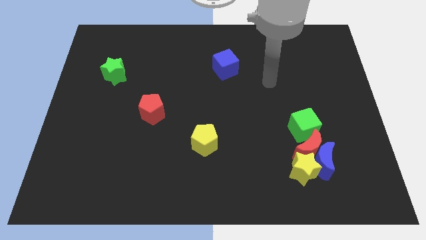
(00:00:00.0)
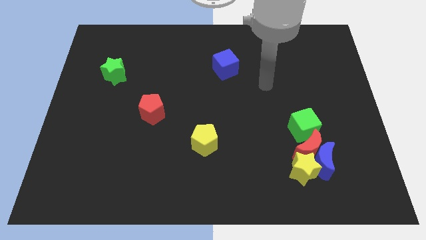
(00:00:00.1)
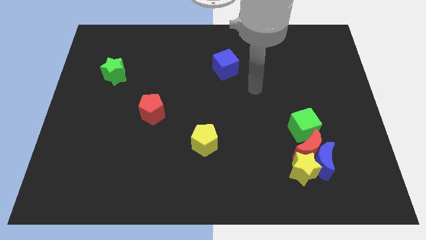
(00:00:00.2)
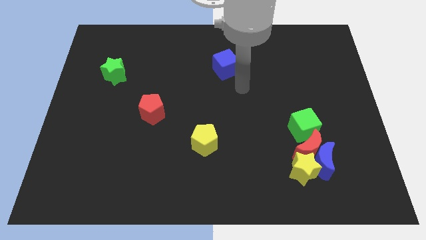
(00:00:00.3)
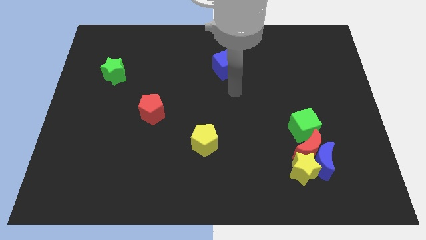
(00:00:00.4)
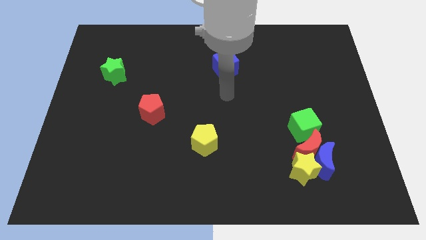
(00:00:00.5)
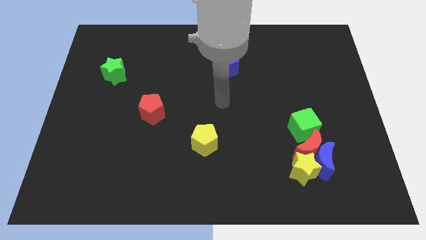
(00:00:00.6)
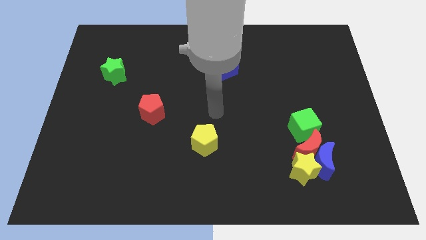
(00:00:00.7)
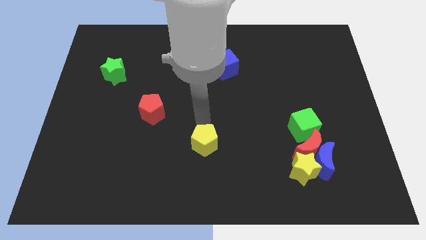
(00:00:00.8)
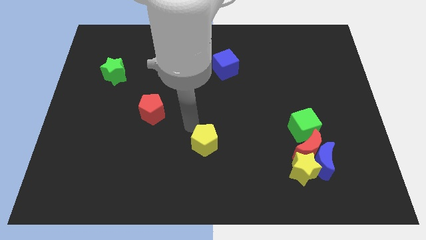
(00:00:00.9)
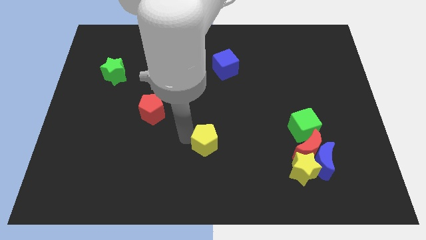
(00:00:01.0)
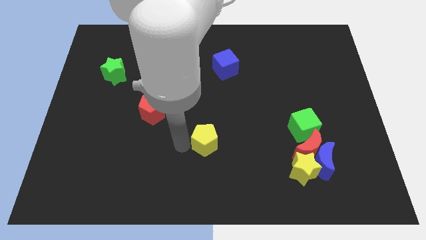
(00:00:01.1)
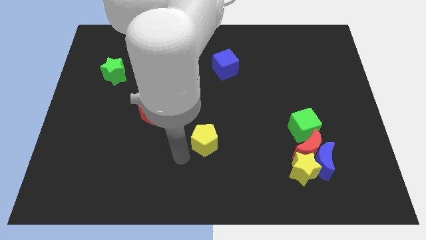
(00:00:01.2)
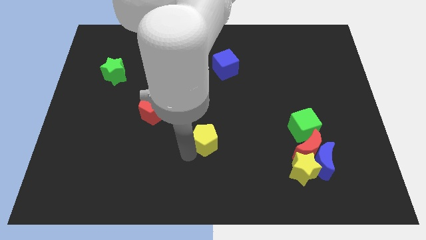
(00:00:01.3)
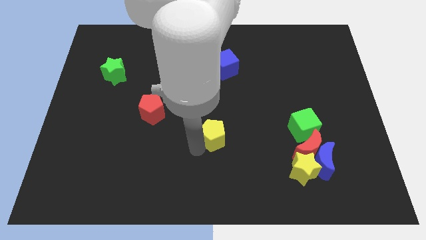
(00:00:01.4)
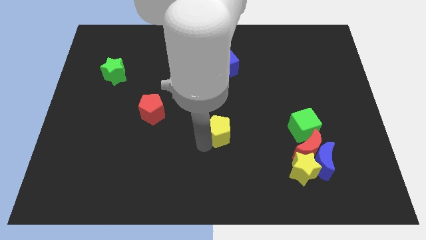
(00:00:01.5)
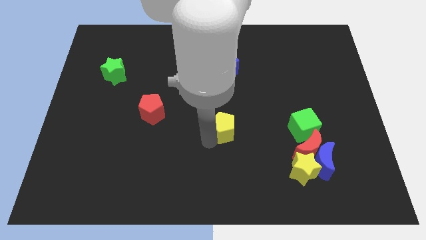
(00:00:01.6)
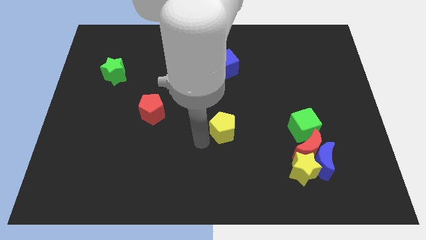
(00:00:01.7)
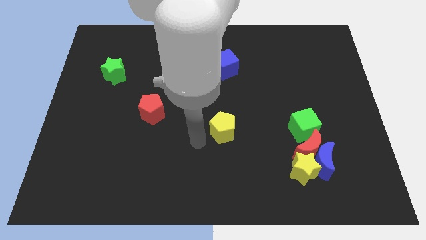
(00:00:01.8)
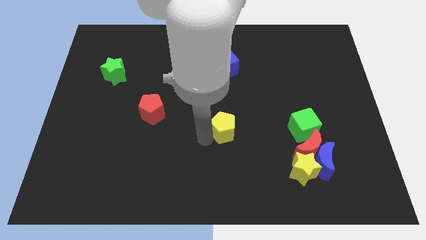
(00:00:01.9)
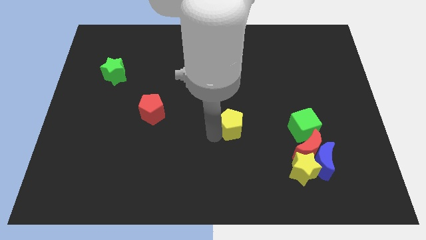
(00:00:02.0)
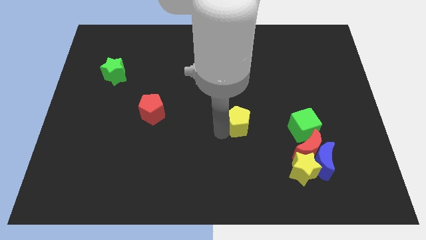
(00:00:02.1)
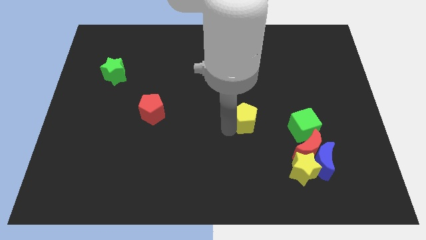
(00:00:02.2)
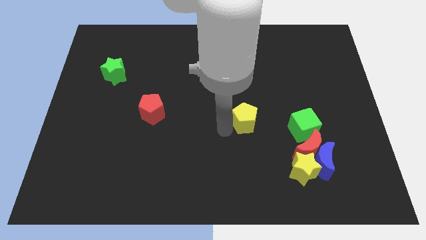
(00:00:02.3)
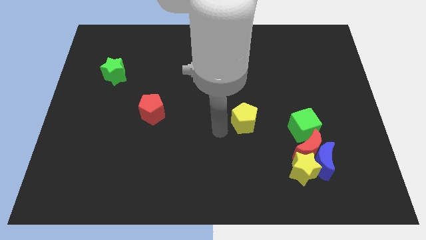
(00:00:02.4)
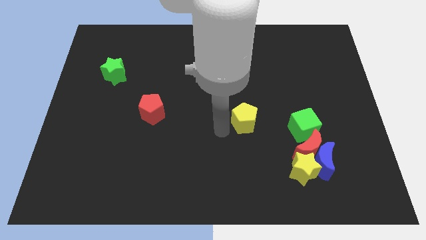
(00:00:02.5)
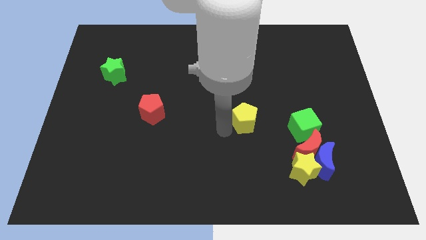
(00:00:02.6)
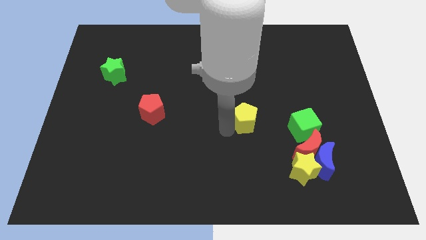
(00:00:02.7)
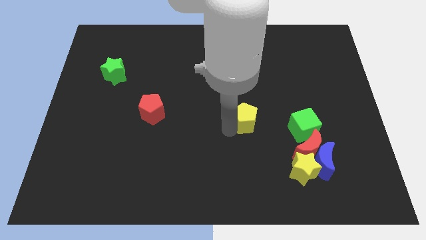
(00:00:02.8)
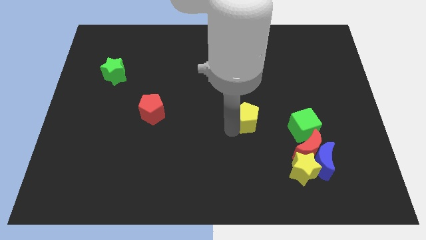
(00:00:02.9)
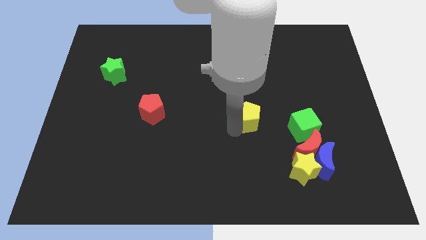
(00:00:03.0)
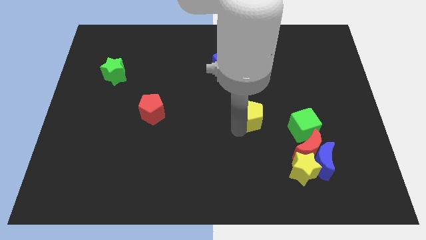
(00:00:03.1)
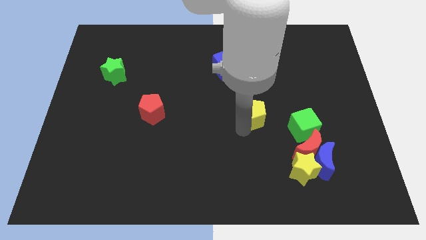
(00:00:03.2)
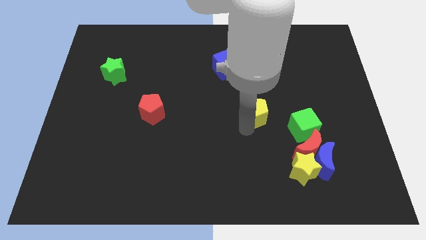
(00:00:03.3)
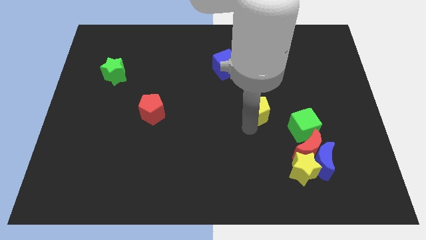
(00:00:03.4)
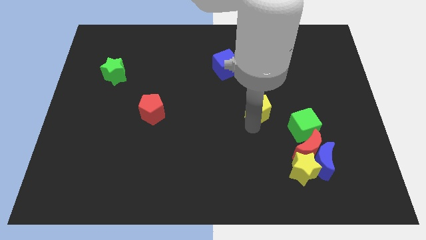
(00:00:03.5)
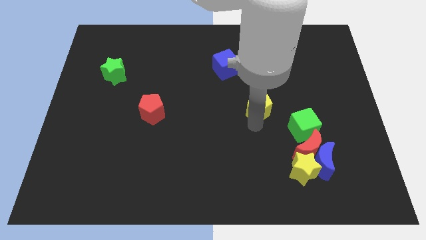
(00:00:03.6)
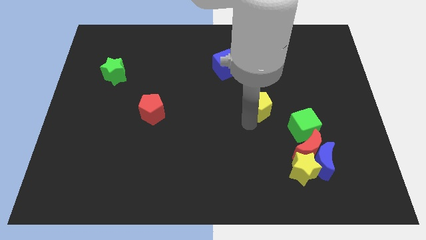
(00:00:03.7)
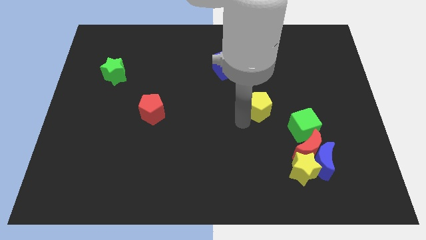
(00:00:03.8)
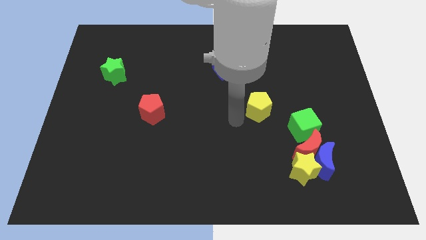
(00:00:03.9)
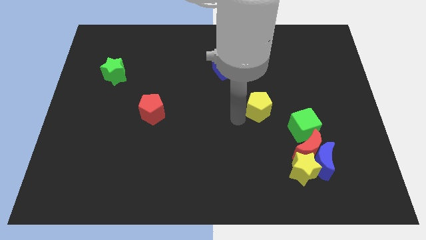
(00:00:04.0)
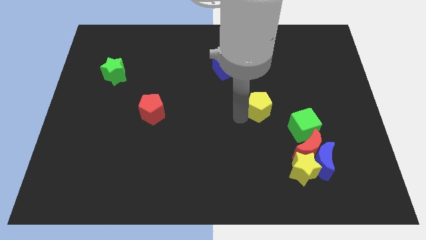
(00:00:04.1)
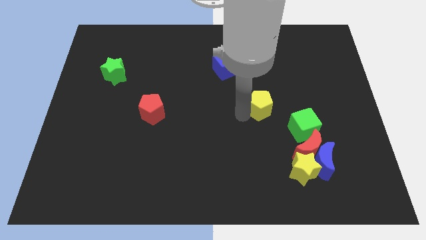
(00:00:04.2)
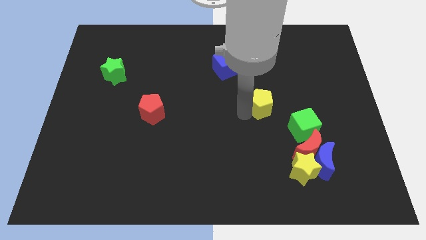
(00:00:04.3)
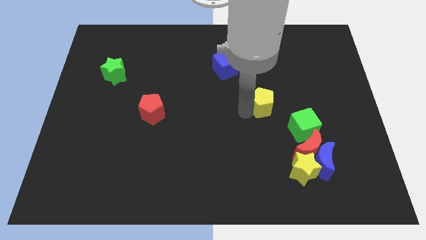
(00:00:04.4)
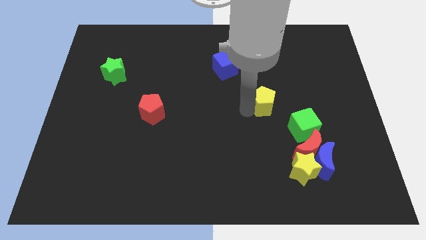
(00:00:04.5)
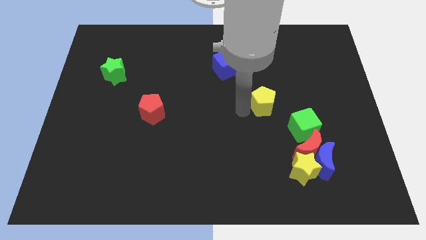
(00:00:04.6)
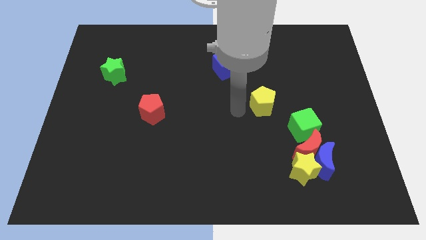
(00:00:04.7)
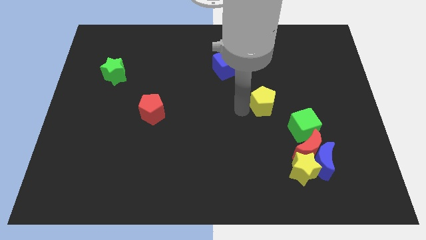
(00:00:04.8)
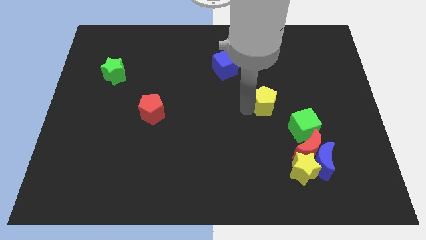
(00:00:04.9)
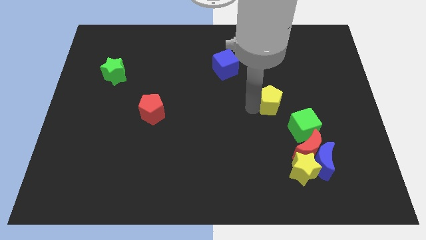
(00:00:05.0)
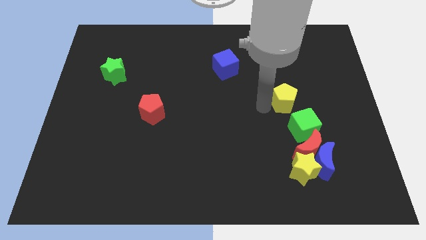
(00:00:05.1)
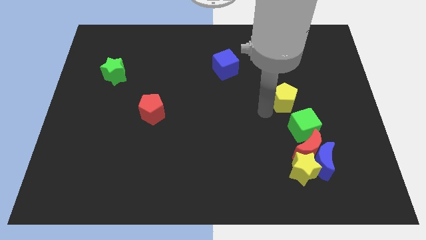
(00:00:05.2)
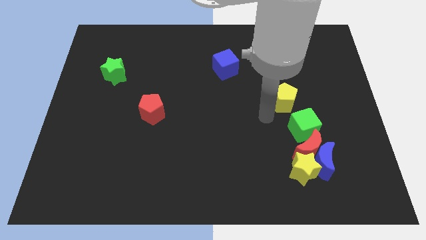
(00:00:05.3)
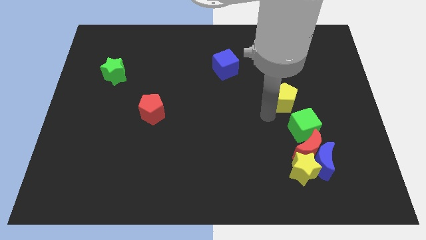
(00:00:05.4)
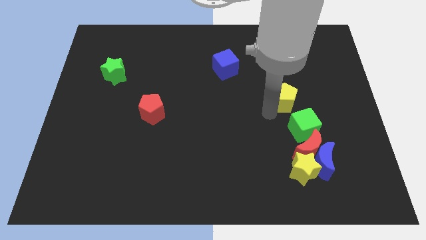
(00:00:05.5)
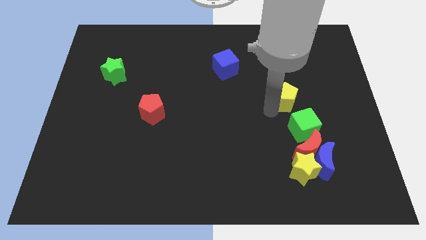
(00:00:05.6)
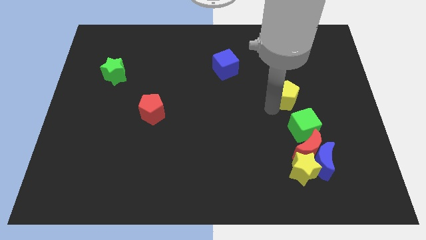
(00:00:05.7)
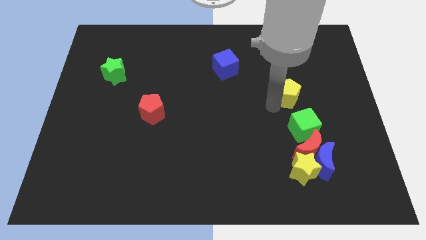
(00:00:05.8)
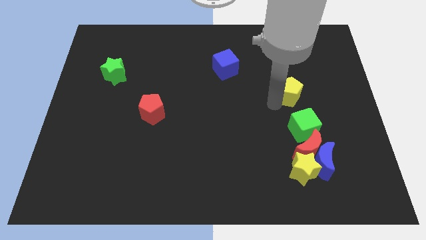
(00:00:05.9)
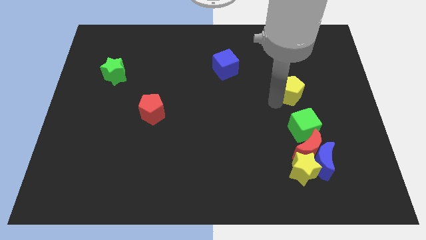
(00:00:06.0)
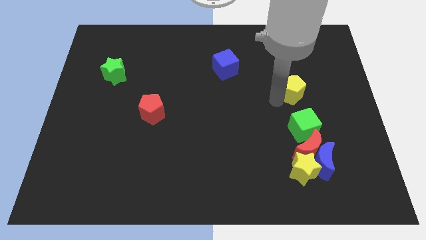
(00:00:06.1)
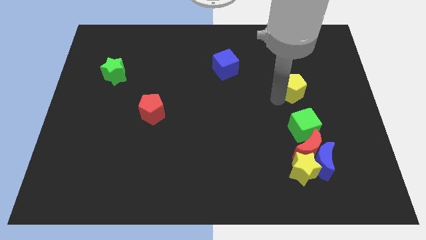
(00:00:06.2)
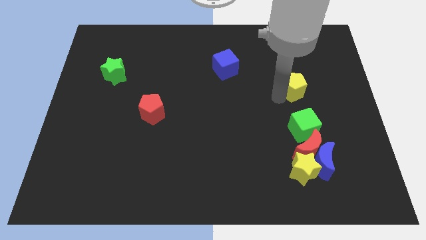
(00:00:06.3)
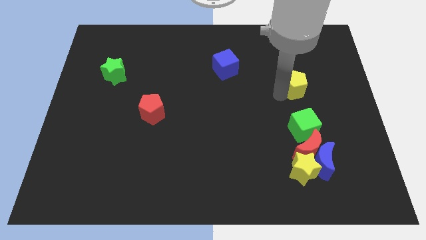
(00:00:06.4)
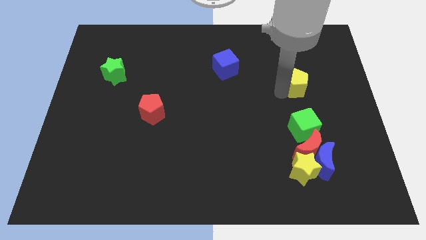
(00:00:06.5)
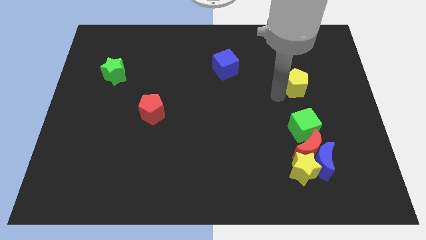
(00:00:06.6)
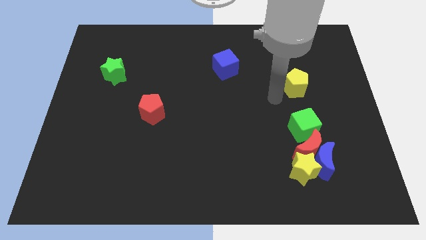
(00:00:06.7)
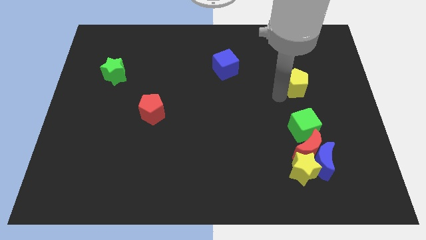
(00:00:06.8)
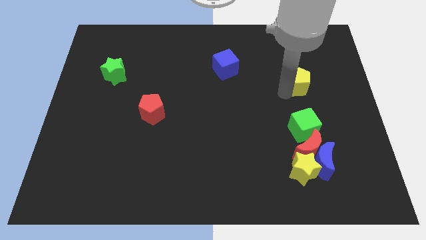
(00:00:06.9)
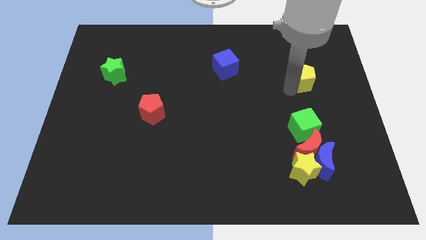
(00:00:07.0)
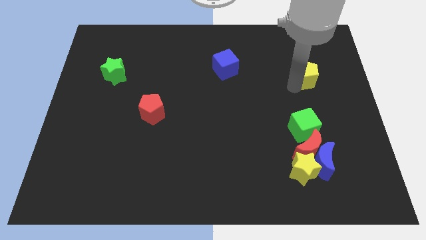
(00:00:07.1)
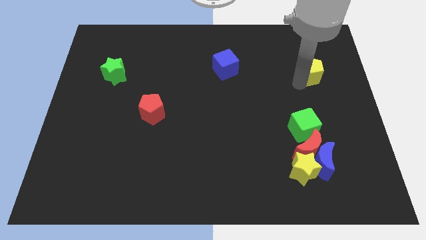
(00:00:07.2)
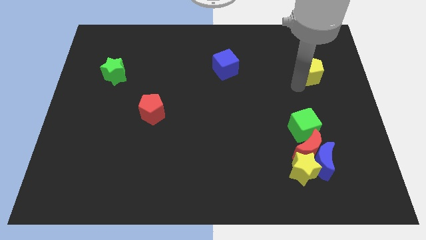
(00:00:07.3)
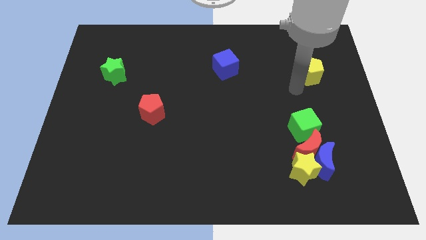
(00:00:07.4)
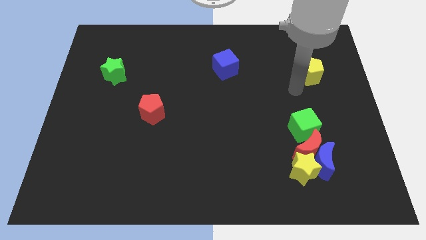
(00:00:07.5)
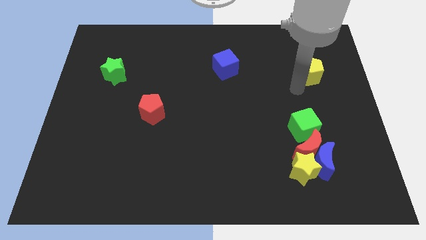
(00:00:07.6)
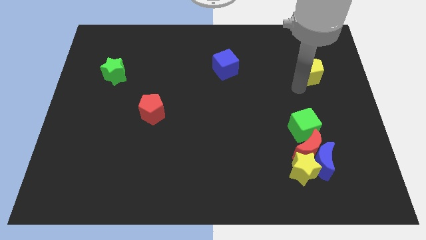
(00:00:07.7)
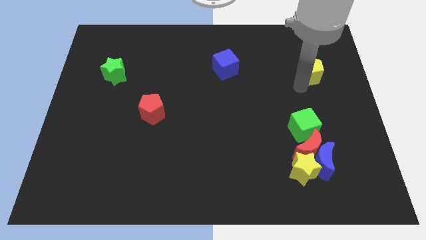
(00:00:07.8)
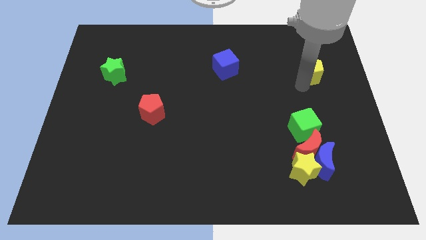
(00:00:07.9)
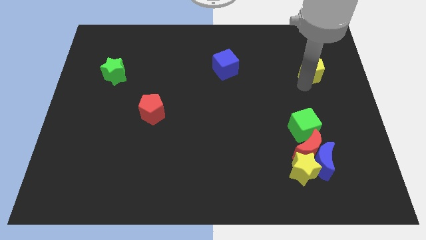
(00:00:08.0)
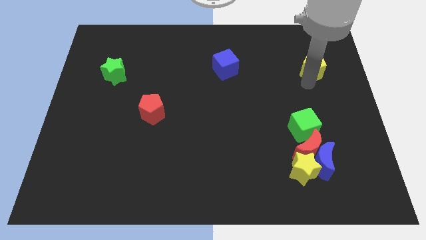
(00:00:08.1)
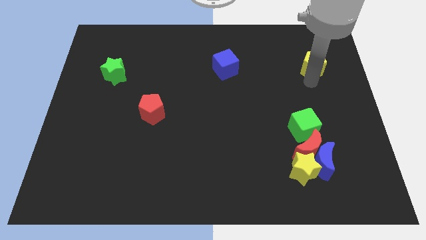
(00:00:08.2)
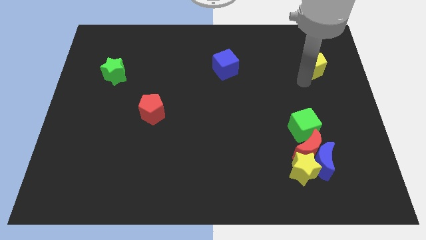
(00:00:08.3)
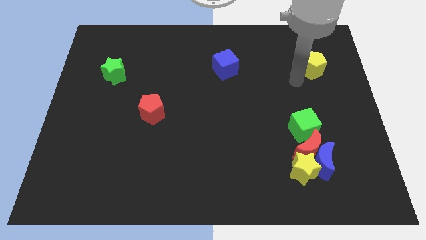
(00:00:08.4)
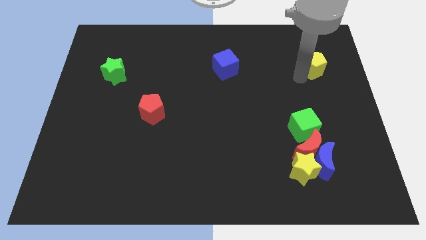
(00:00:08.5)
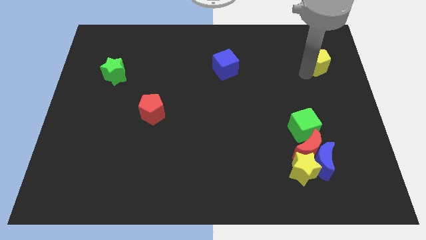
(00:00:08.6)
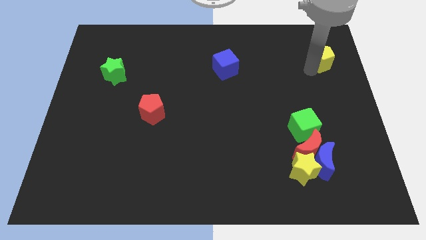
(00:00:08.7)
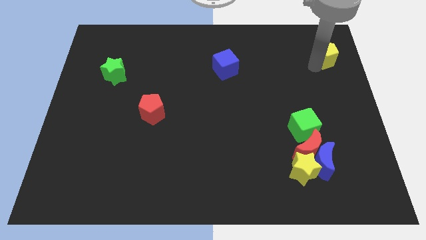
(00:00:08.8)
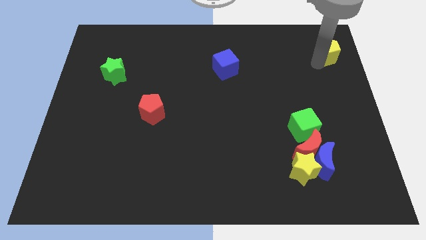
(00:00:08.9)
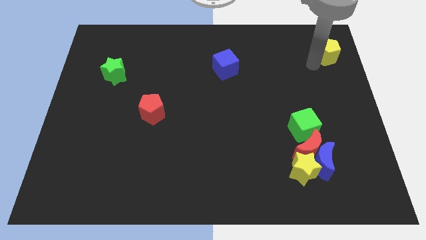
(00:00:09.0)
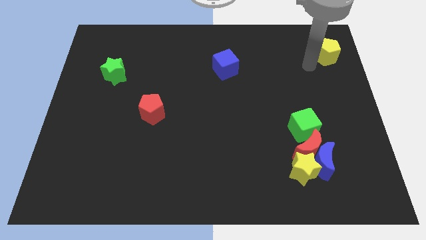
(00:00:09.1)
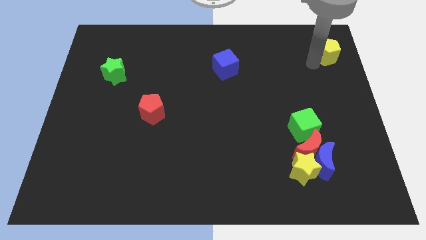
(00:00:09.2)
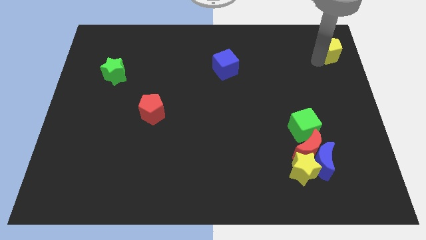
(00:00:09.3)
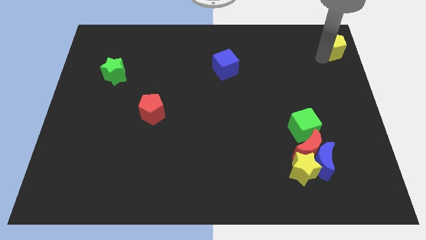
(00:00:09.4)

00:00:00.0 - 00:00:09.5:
move the yellow pentagon to the top right of the board
